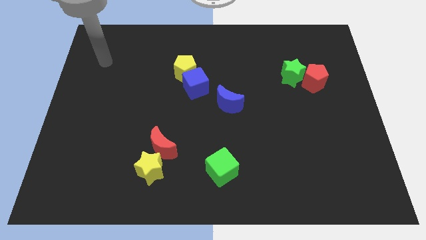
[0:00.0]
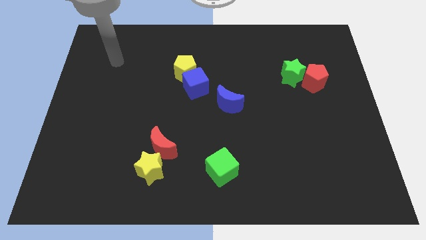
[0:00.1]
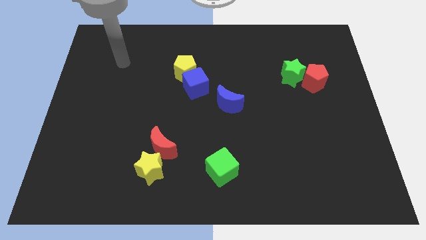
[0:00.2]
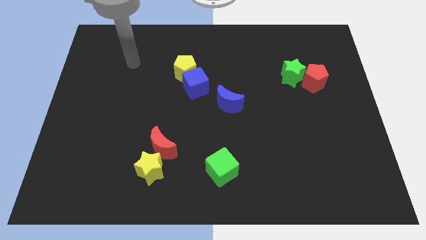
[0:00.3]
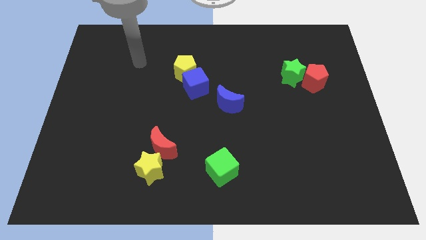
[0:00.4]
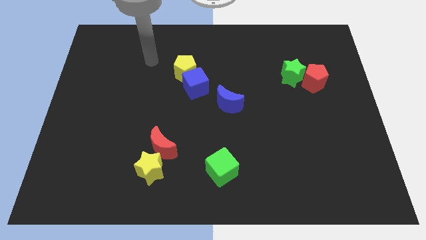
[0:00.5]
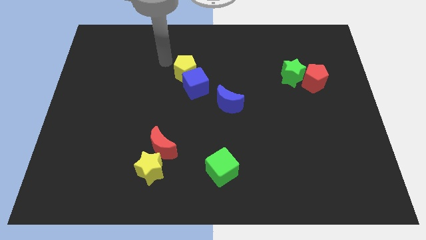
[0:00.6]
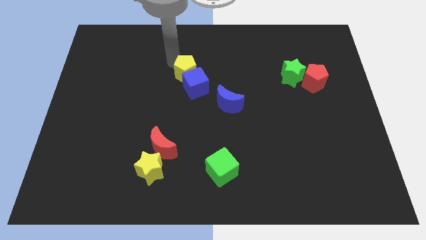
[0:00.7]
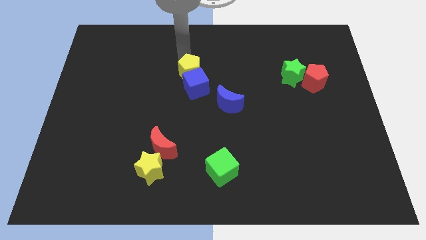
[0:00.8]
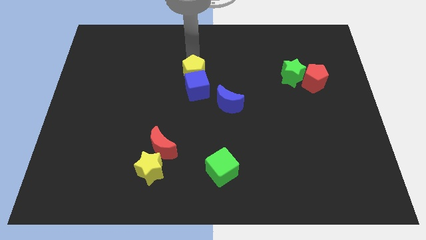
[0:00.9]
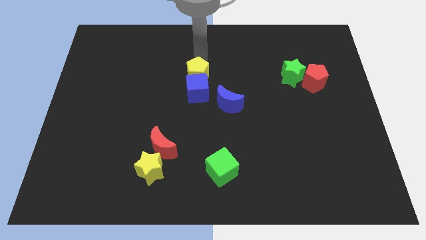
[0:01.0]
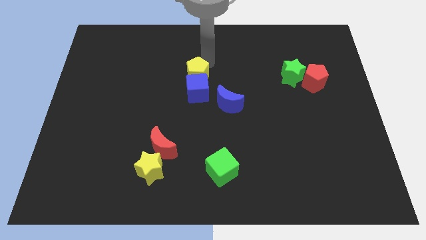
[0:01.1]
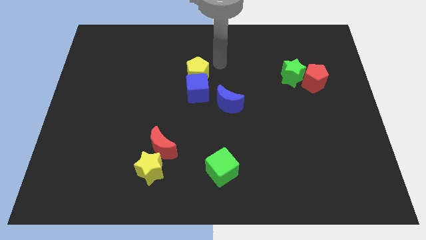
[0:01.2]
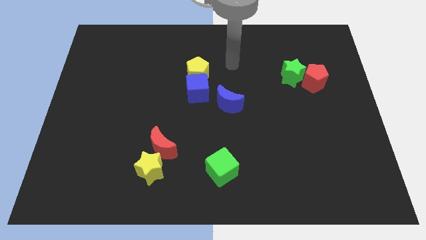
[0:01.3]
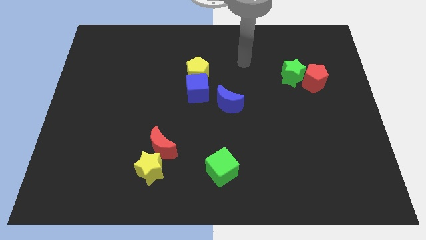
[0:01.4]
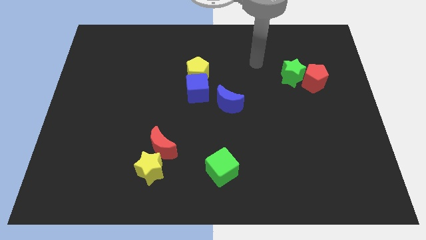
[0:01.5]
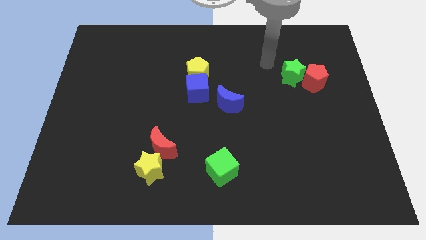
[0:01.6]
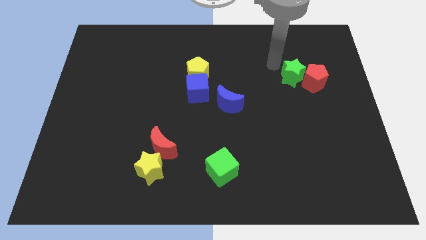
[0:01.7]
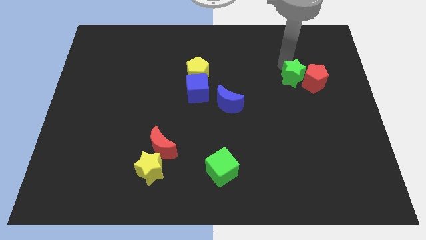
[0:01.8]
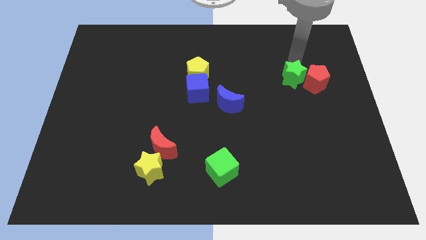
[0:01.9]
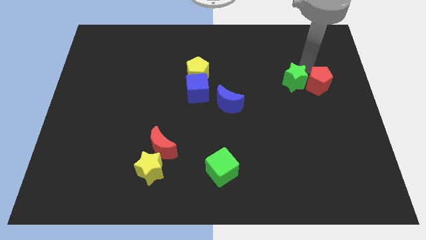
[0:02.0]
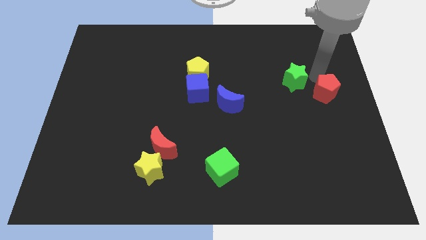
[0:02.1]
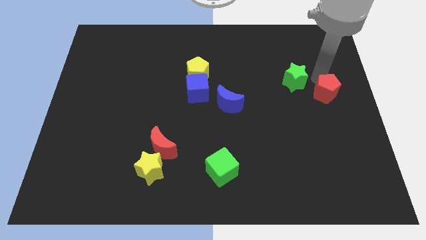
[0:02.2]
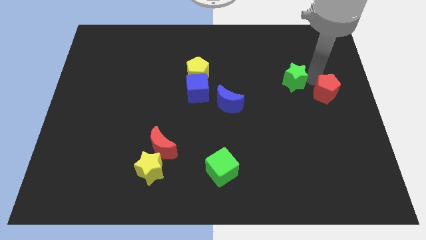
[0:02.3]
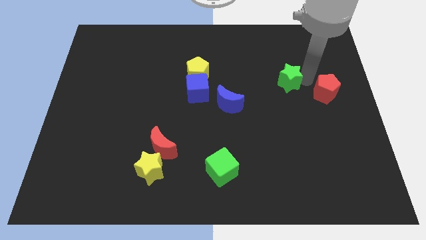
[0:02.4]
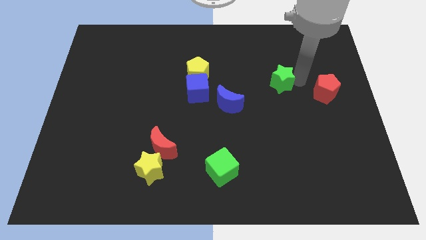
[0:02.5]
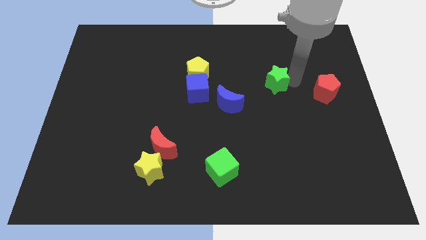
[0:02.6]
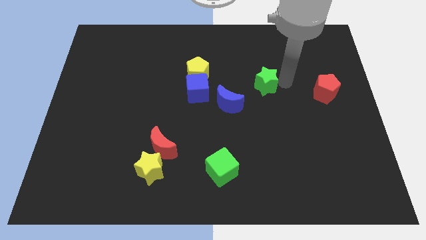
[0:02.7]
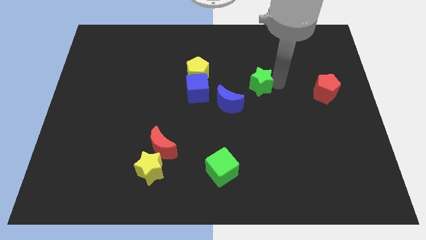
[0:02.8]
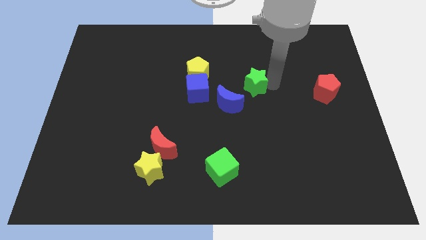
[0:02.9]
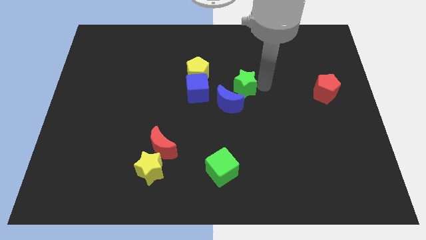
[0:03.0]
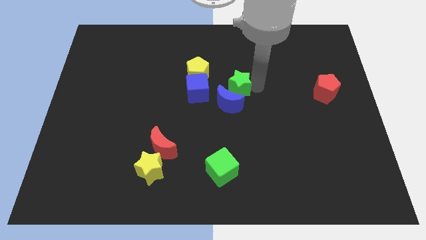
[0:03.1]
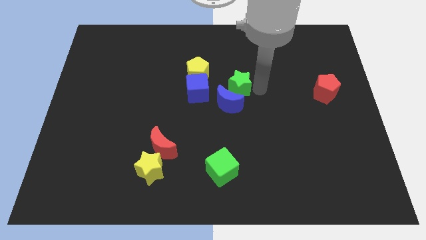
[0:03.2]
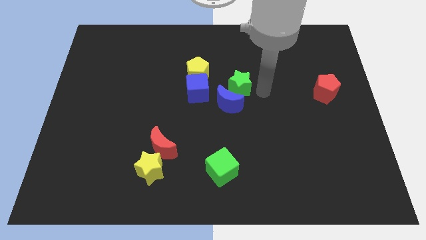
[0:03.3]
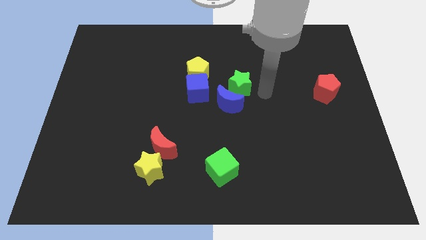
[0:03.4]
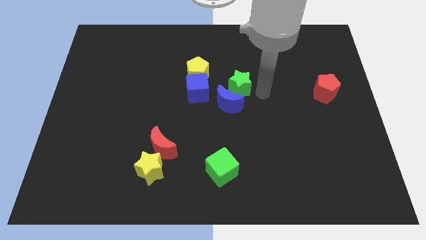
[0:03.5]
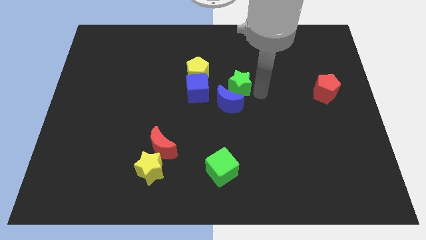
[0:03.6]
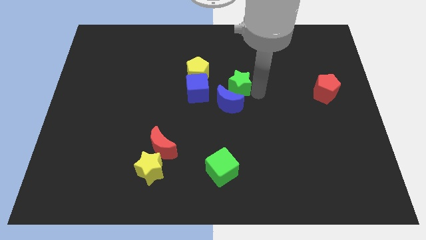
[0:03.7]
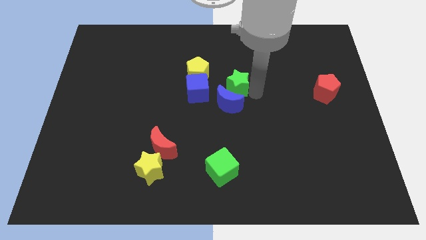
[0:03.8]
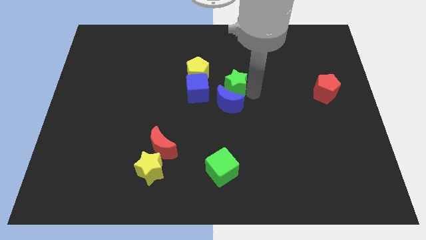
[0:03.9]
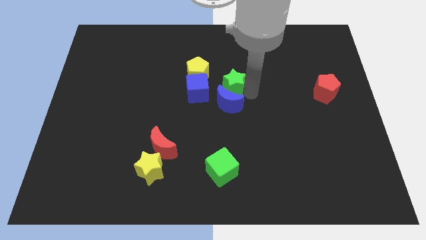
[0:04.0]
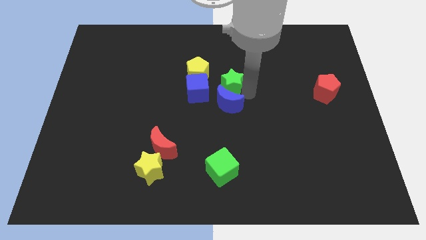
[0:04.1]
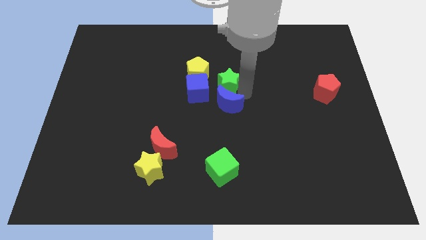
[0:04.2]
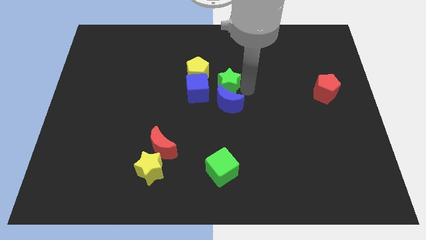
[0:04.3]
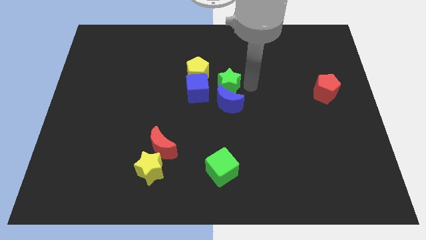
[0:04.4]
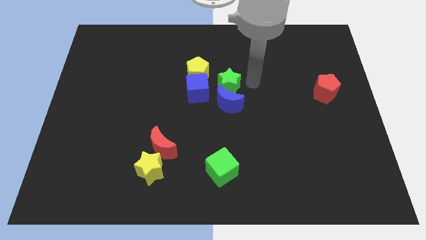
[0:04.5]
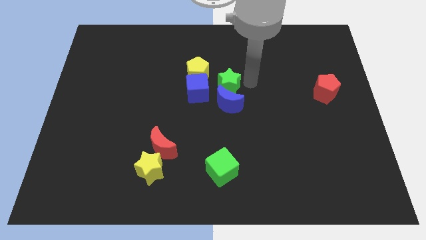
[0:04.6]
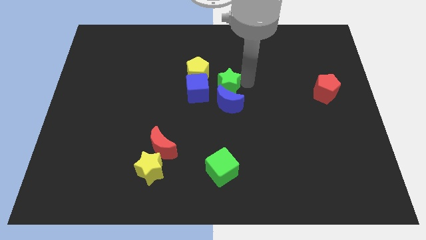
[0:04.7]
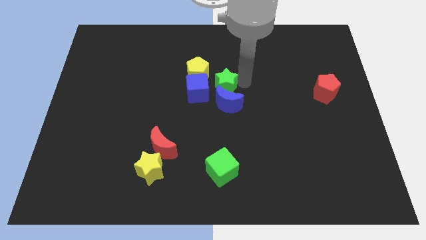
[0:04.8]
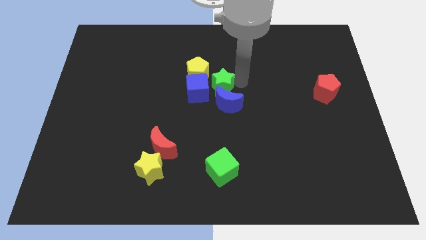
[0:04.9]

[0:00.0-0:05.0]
put the green star towards the blue cube
